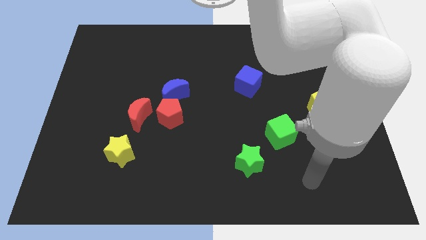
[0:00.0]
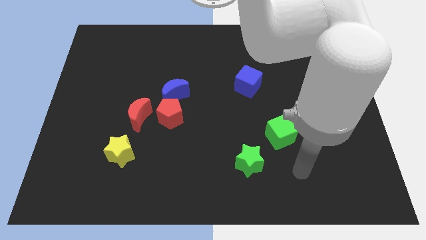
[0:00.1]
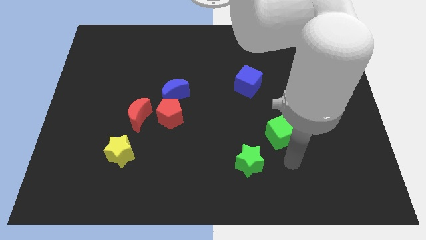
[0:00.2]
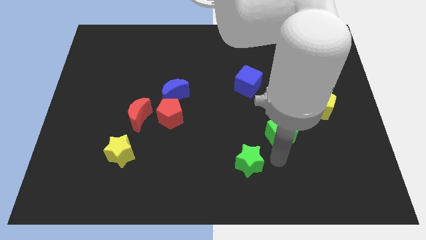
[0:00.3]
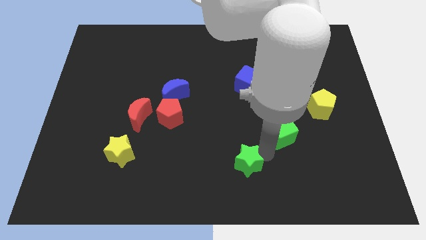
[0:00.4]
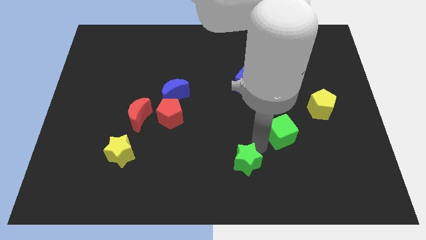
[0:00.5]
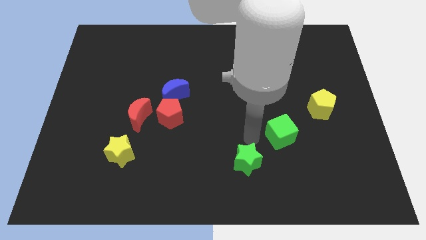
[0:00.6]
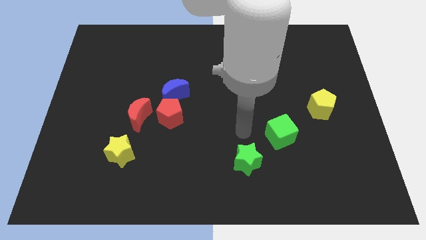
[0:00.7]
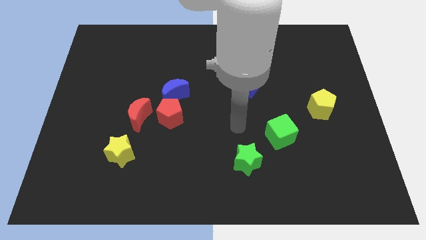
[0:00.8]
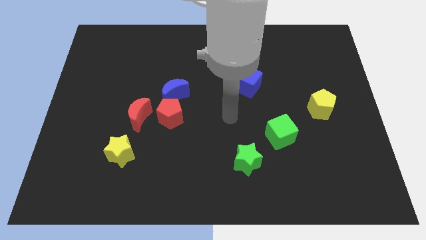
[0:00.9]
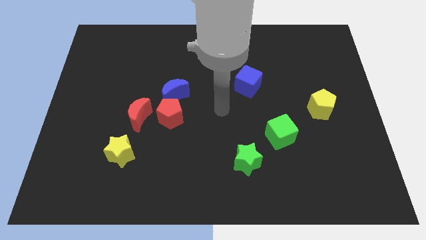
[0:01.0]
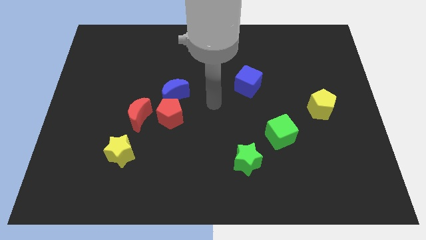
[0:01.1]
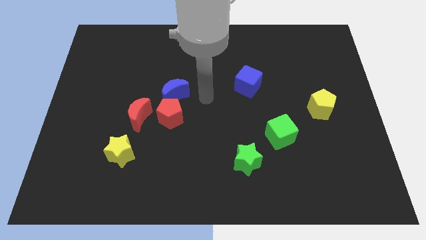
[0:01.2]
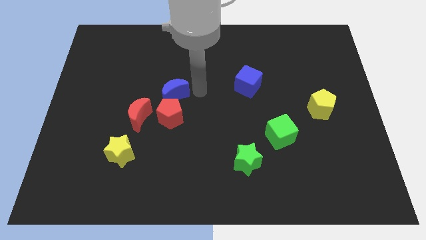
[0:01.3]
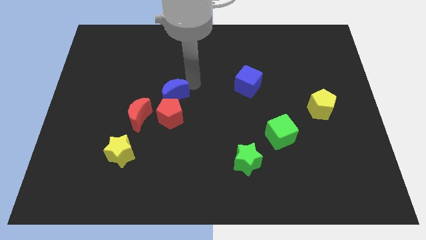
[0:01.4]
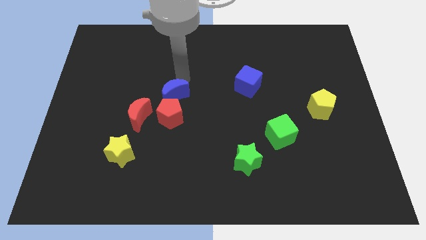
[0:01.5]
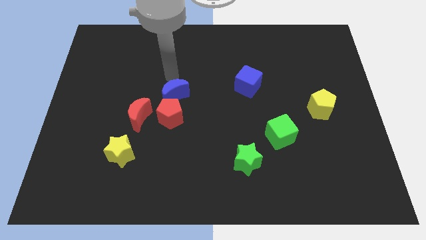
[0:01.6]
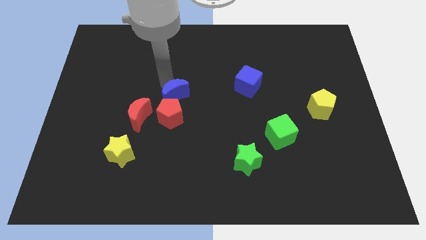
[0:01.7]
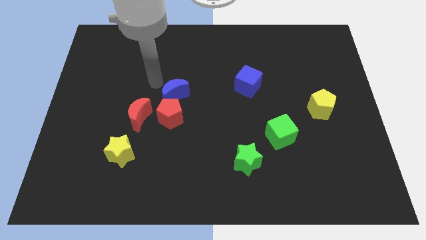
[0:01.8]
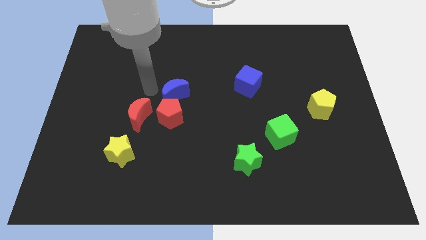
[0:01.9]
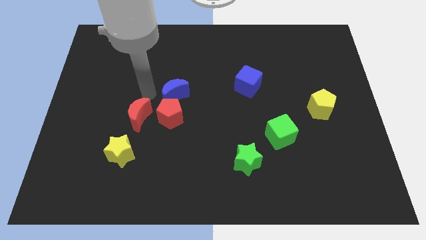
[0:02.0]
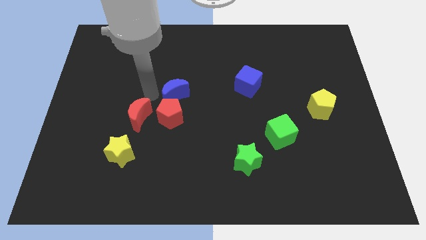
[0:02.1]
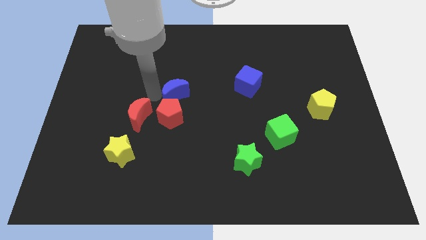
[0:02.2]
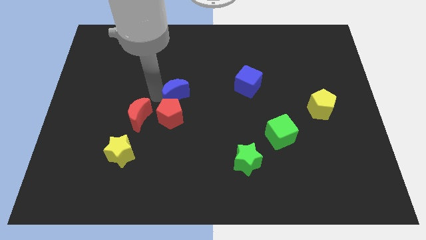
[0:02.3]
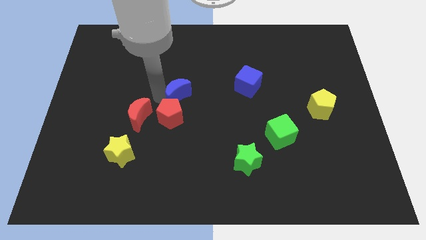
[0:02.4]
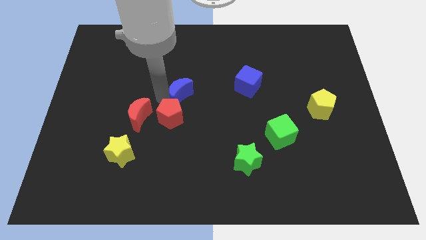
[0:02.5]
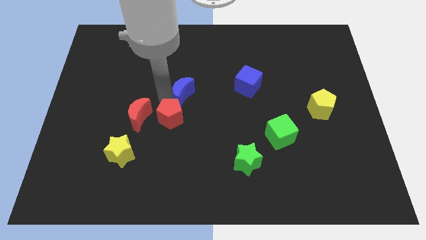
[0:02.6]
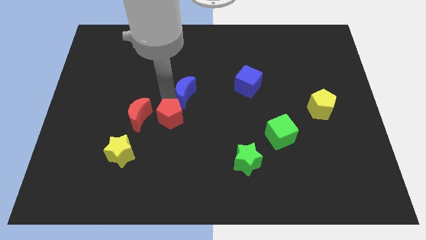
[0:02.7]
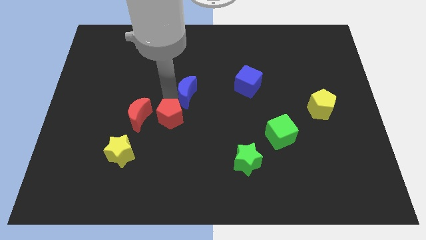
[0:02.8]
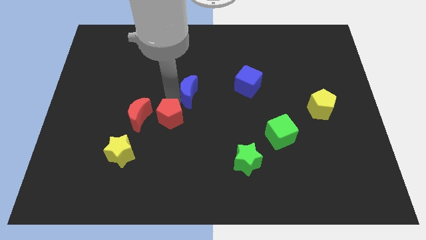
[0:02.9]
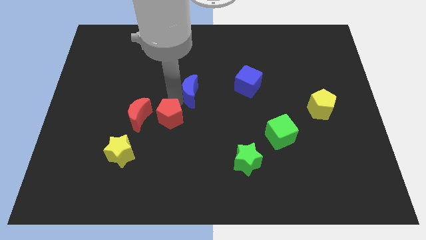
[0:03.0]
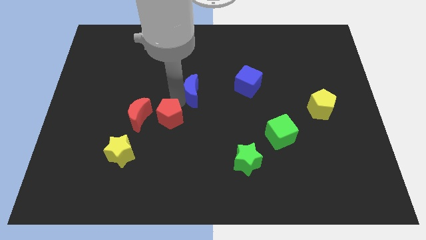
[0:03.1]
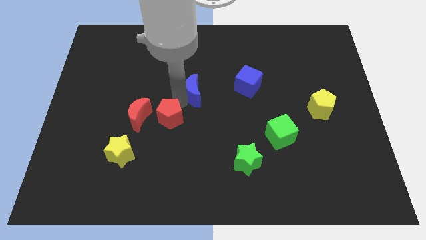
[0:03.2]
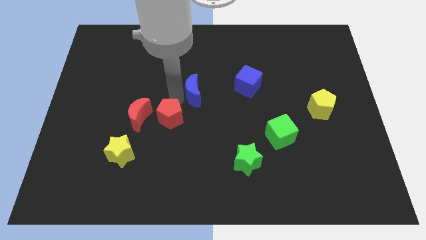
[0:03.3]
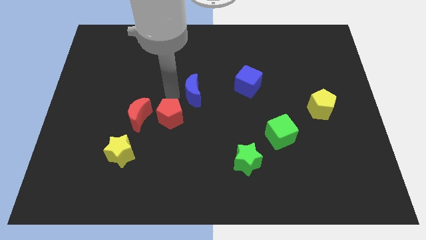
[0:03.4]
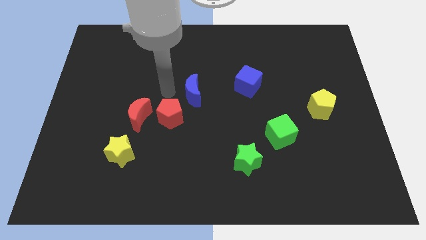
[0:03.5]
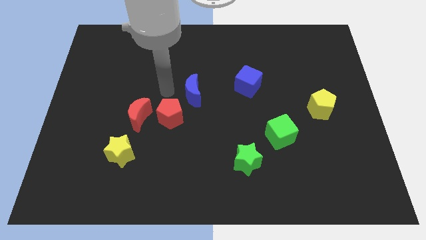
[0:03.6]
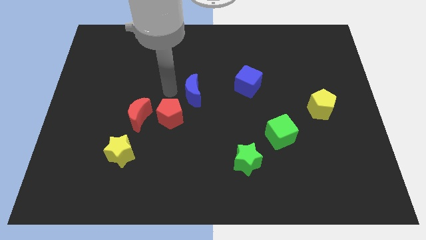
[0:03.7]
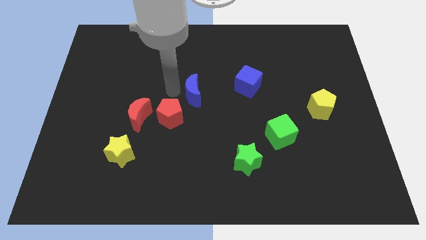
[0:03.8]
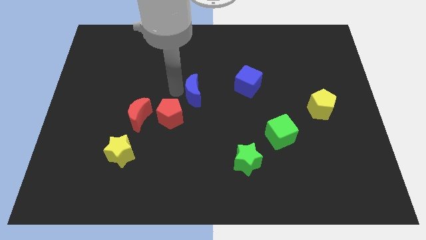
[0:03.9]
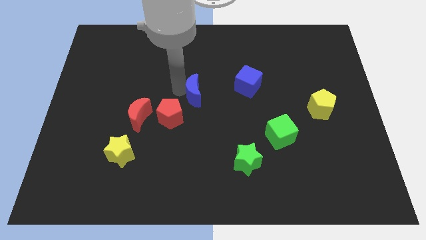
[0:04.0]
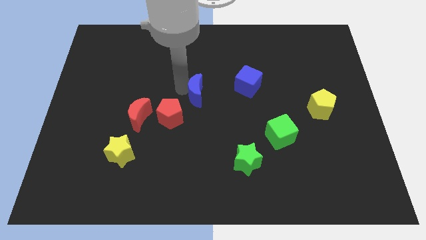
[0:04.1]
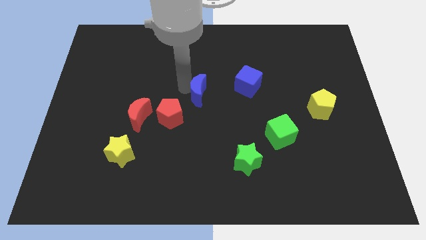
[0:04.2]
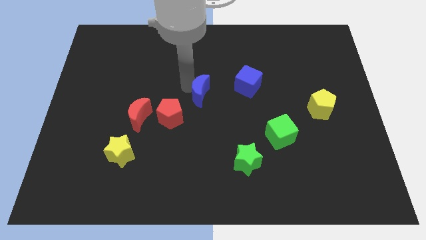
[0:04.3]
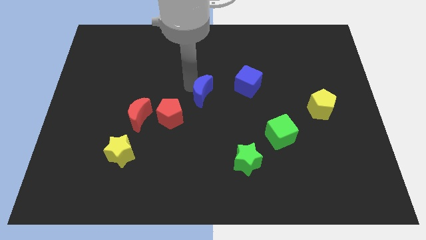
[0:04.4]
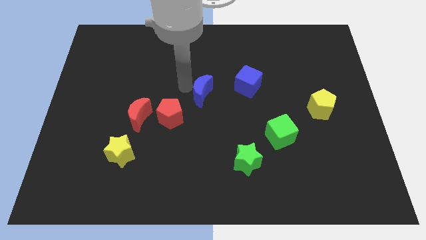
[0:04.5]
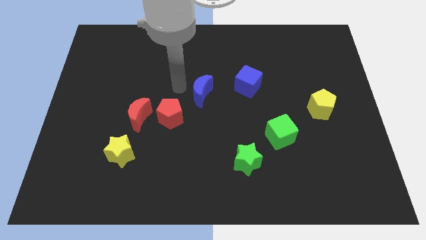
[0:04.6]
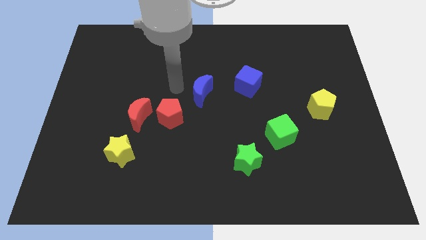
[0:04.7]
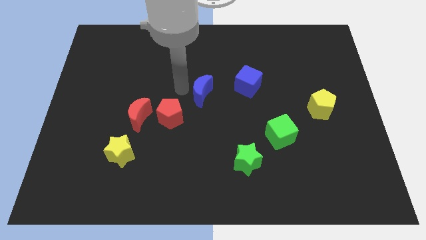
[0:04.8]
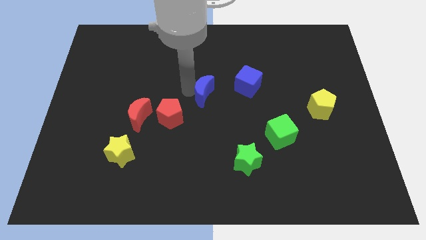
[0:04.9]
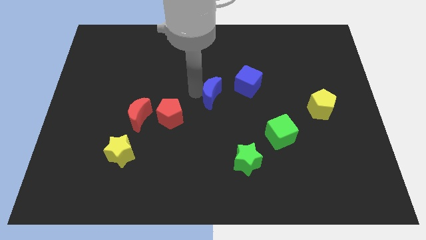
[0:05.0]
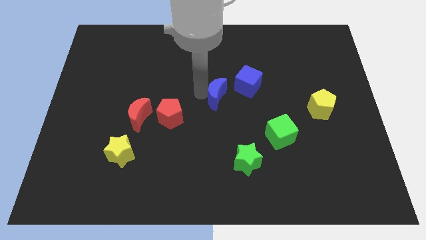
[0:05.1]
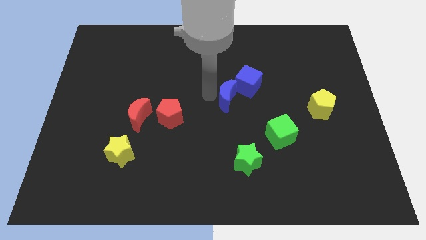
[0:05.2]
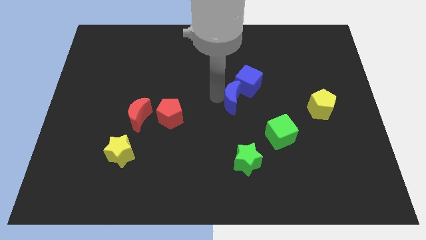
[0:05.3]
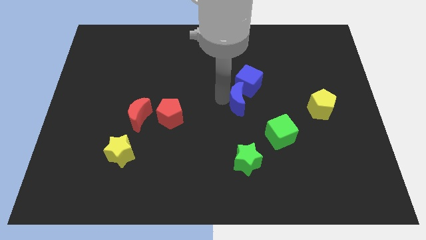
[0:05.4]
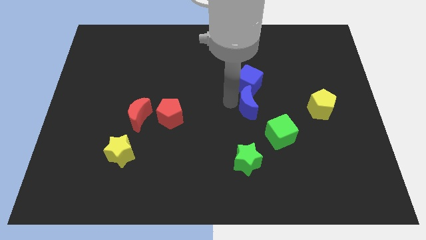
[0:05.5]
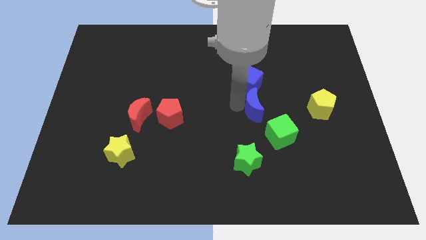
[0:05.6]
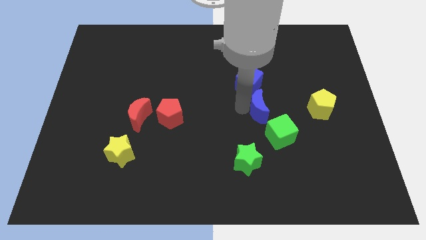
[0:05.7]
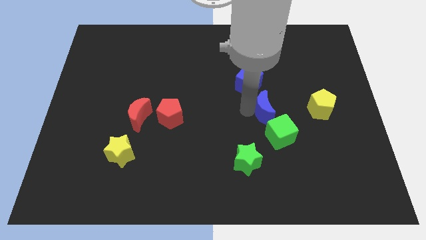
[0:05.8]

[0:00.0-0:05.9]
move the blue moon to the right

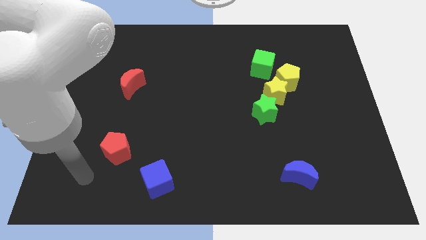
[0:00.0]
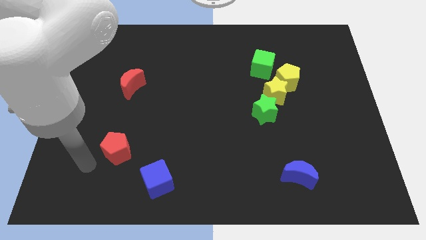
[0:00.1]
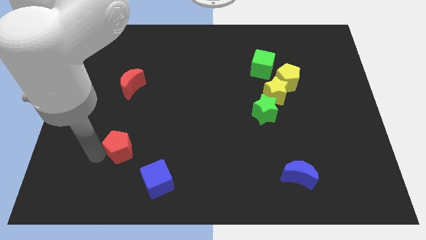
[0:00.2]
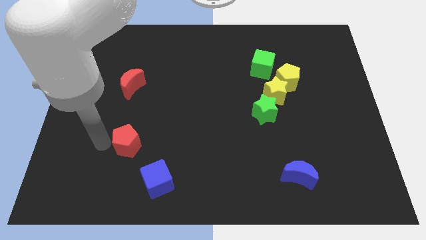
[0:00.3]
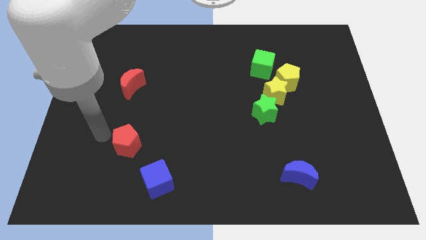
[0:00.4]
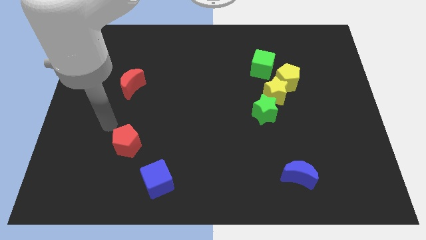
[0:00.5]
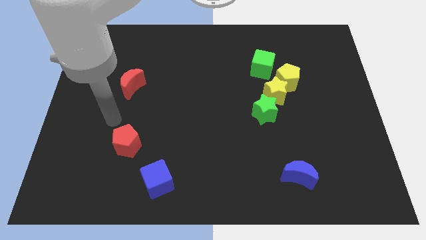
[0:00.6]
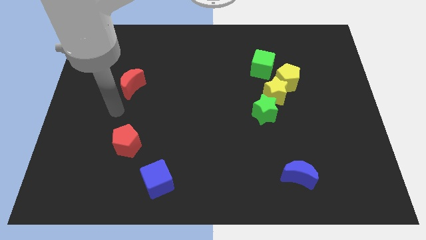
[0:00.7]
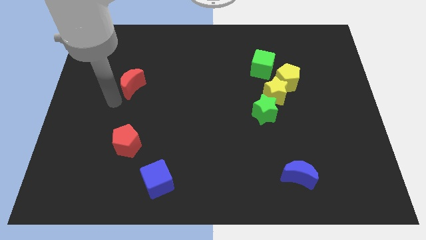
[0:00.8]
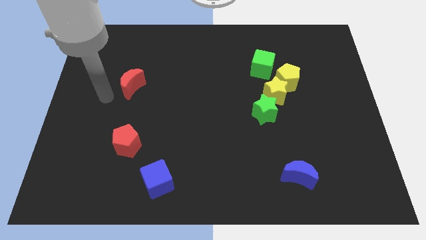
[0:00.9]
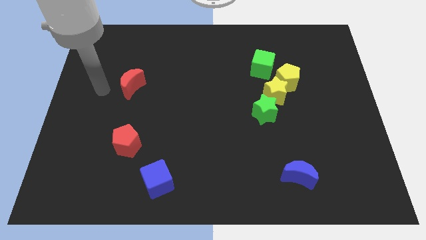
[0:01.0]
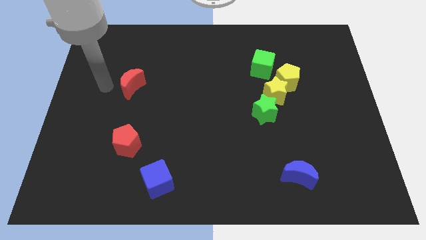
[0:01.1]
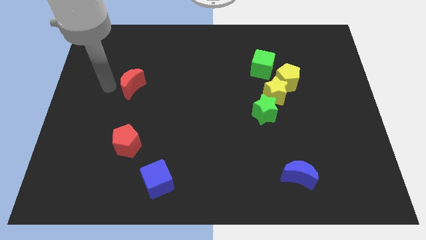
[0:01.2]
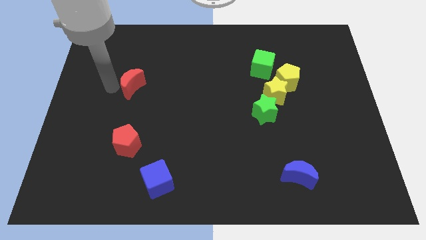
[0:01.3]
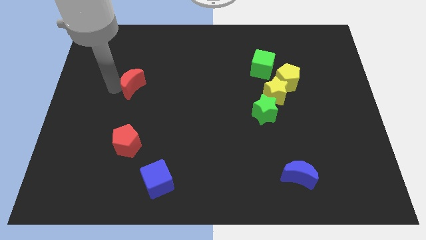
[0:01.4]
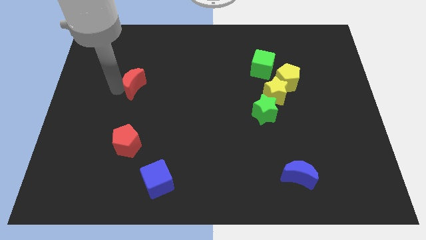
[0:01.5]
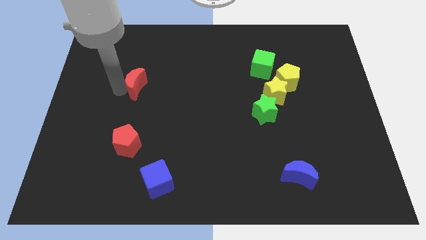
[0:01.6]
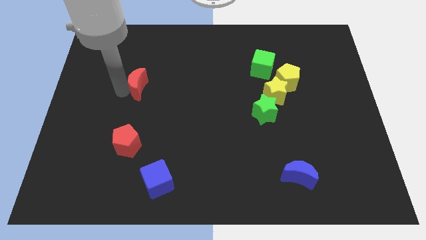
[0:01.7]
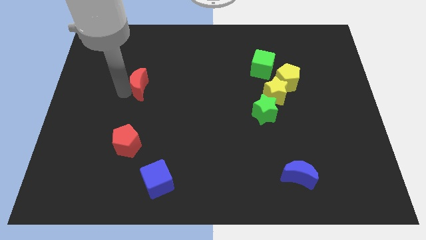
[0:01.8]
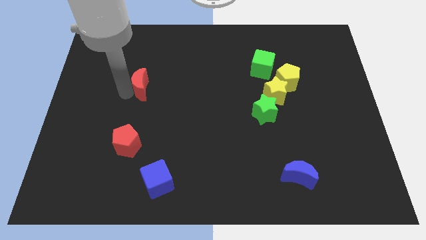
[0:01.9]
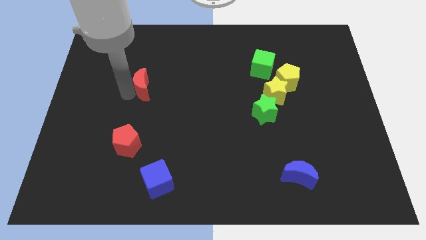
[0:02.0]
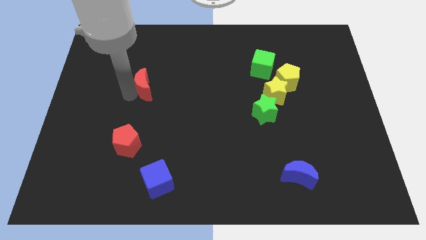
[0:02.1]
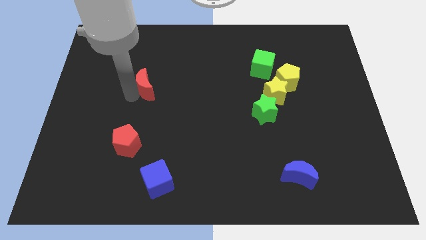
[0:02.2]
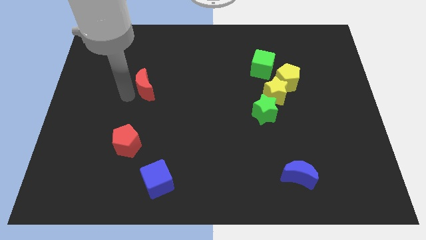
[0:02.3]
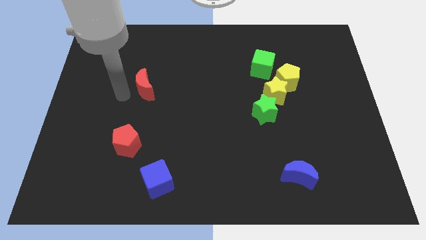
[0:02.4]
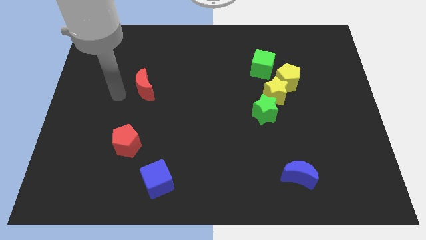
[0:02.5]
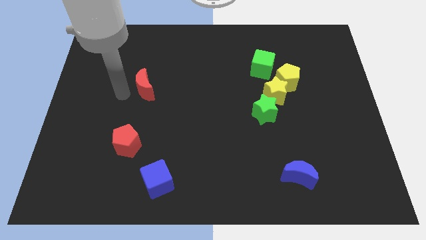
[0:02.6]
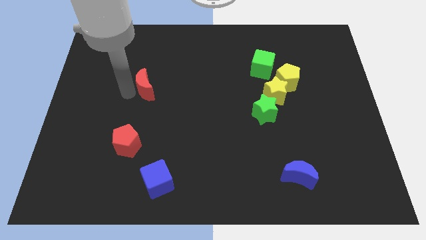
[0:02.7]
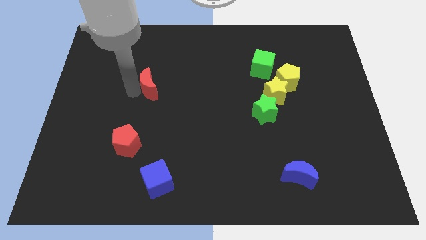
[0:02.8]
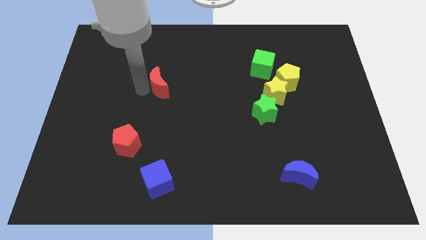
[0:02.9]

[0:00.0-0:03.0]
slide the red moon to the right a little bit
